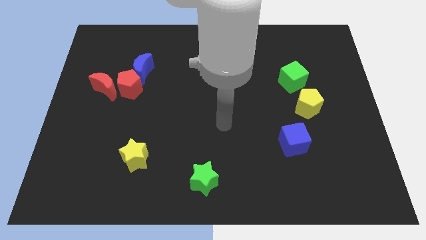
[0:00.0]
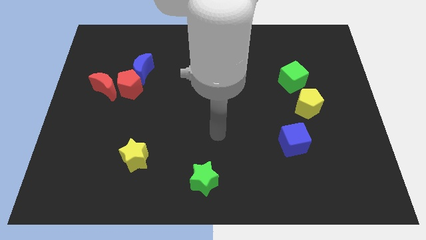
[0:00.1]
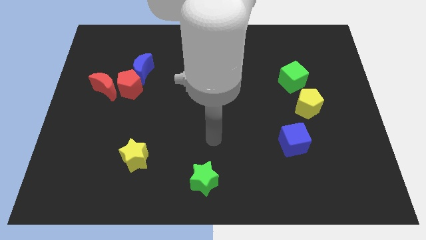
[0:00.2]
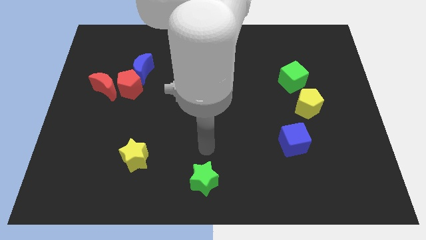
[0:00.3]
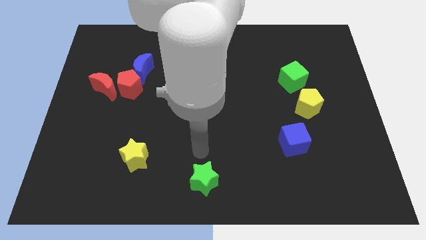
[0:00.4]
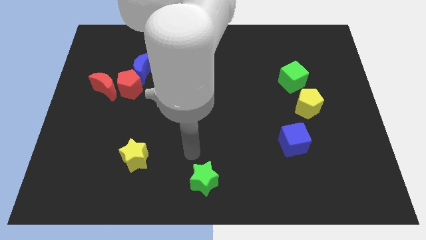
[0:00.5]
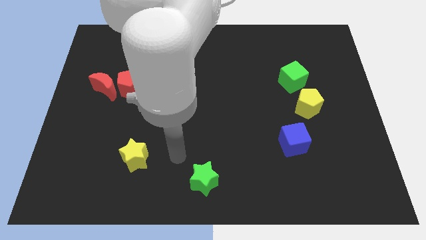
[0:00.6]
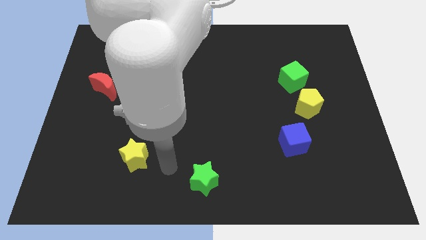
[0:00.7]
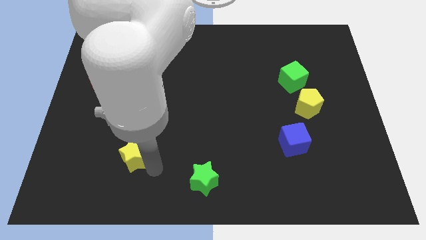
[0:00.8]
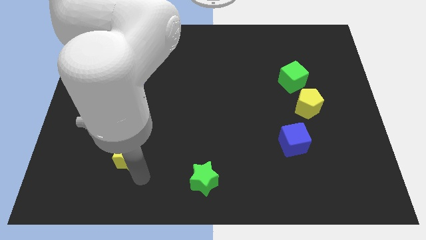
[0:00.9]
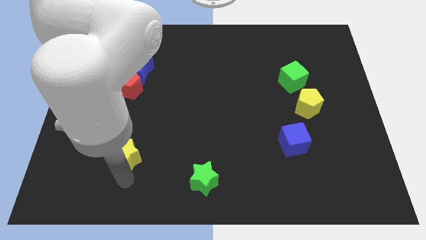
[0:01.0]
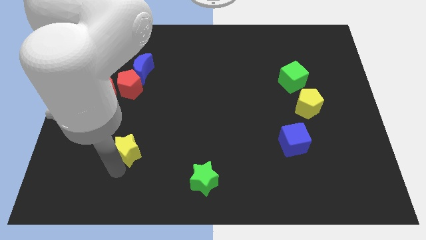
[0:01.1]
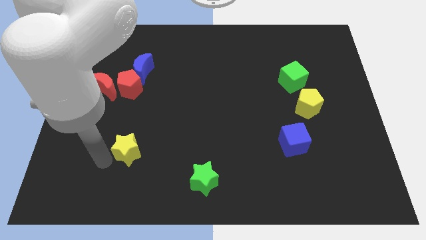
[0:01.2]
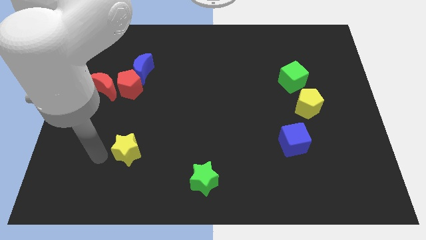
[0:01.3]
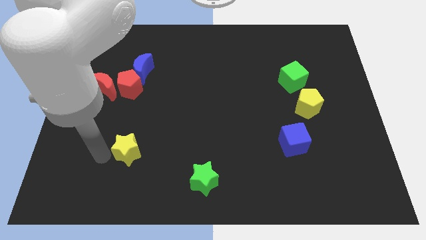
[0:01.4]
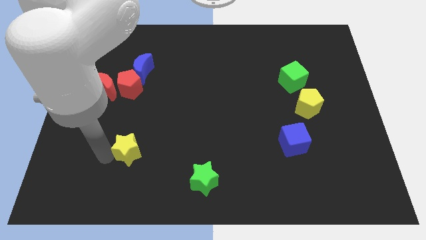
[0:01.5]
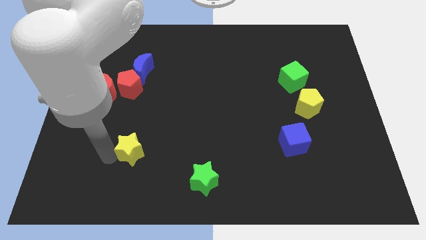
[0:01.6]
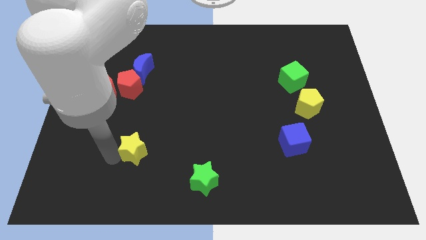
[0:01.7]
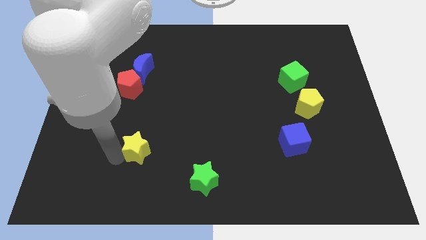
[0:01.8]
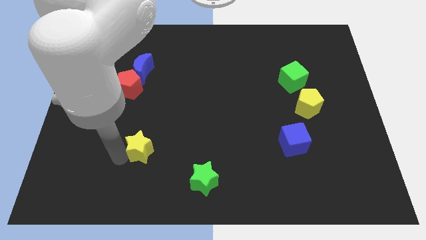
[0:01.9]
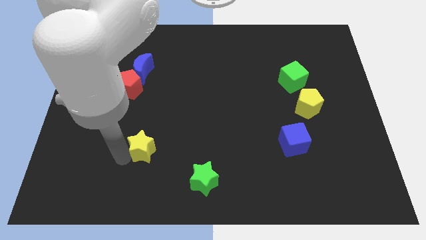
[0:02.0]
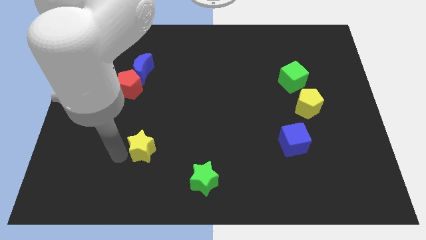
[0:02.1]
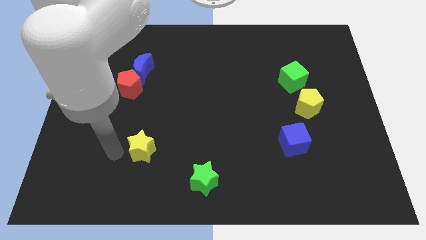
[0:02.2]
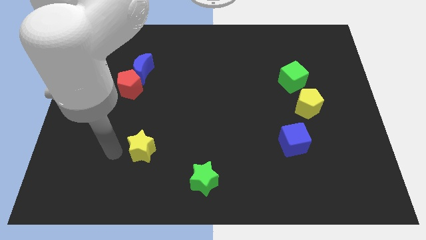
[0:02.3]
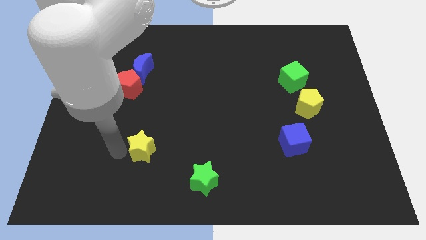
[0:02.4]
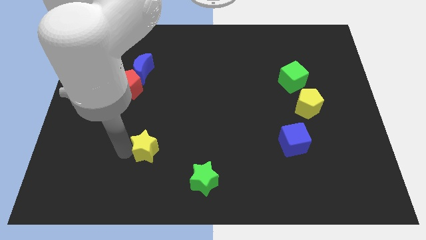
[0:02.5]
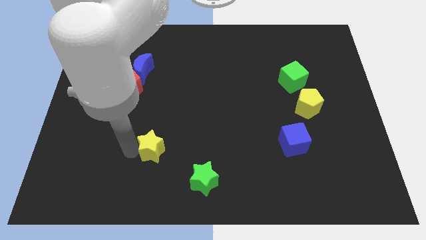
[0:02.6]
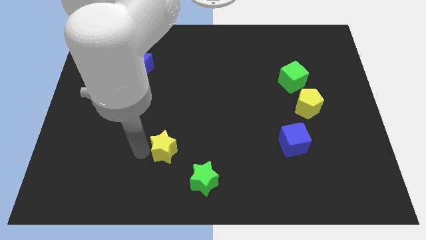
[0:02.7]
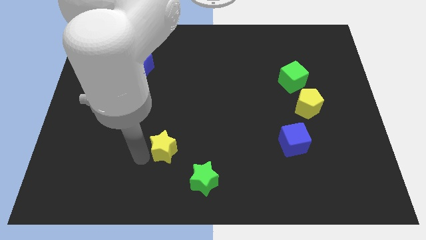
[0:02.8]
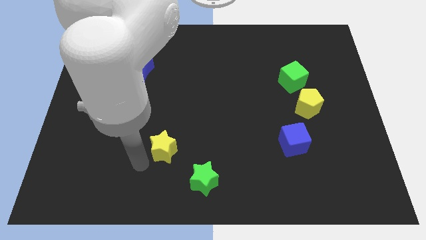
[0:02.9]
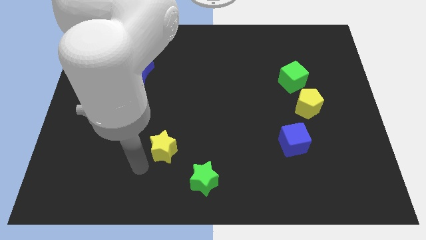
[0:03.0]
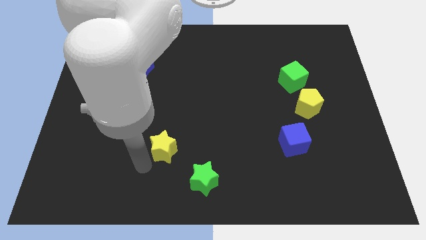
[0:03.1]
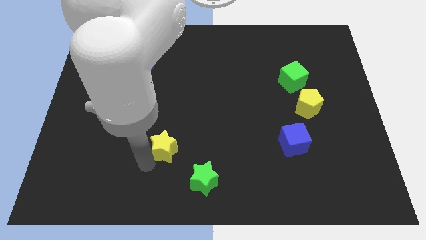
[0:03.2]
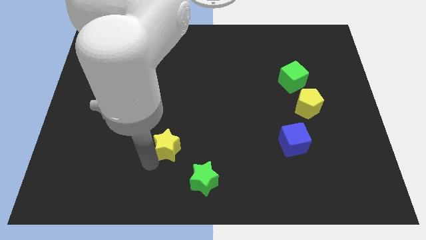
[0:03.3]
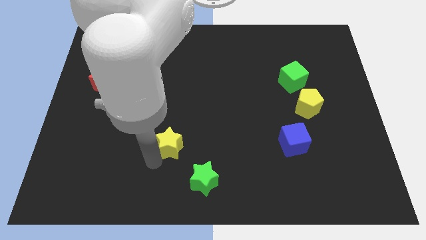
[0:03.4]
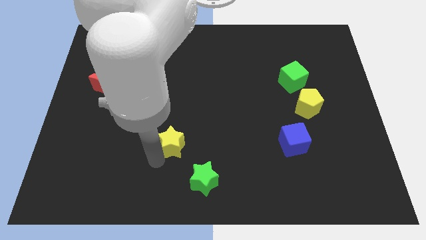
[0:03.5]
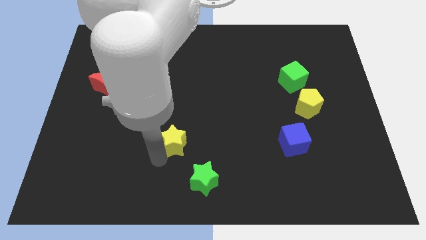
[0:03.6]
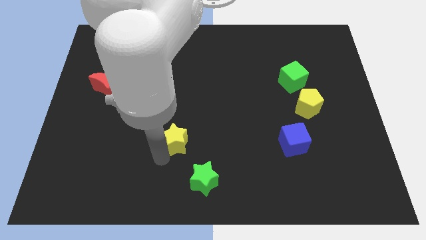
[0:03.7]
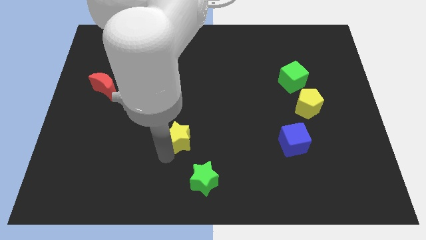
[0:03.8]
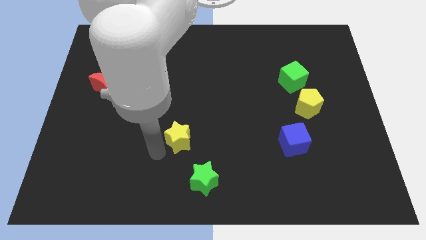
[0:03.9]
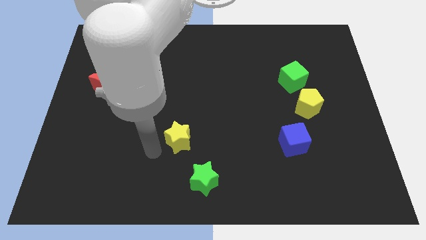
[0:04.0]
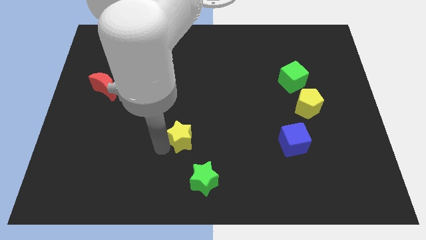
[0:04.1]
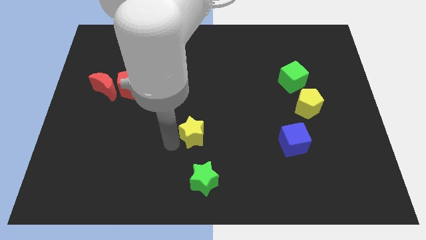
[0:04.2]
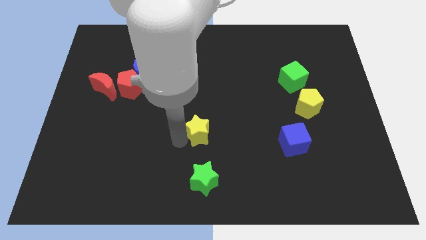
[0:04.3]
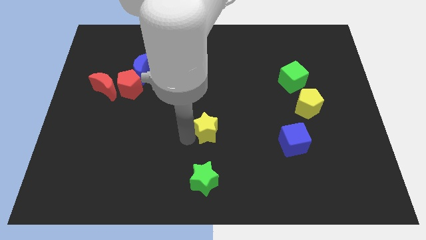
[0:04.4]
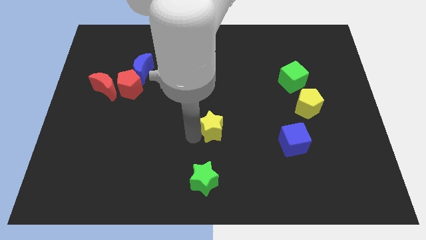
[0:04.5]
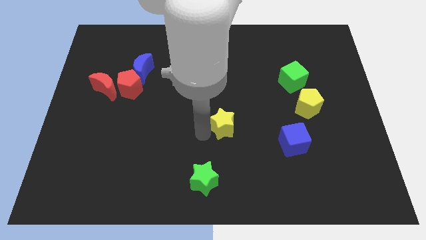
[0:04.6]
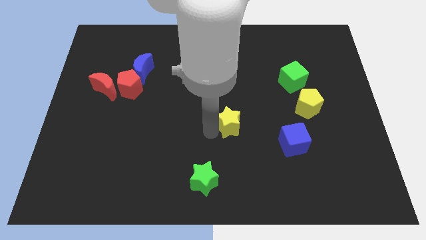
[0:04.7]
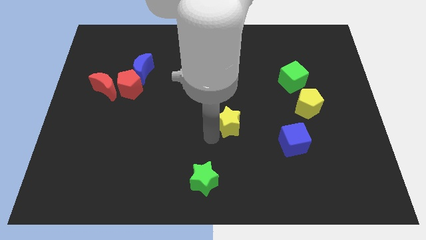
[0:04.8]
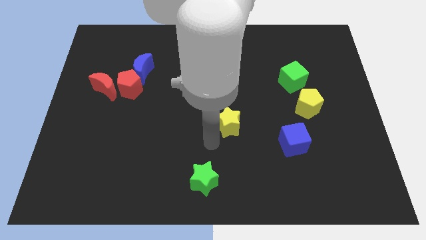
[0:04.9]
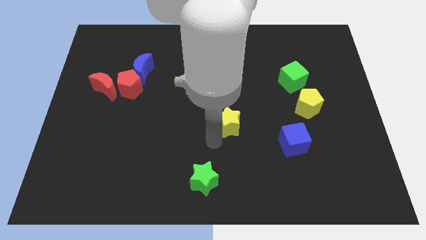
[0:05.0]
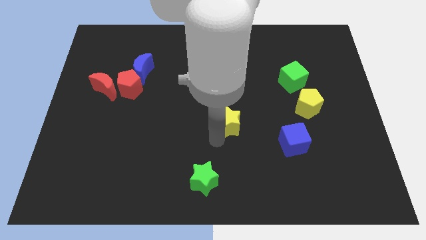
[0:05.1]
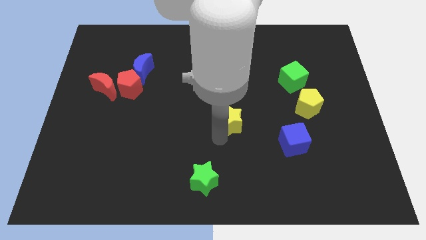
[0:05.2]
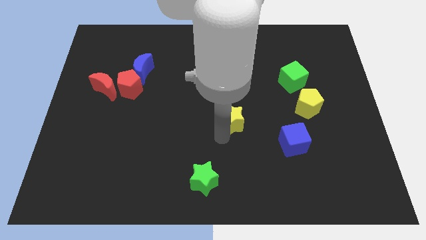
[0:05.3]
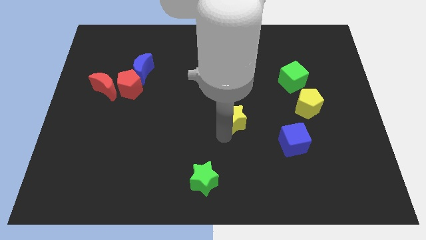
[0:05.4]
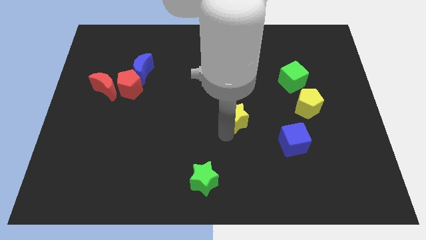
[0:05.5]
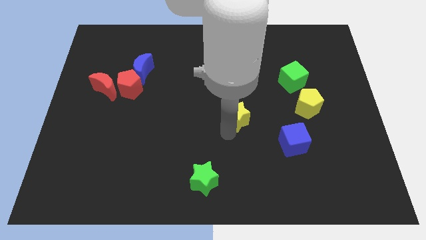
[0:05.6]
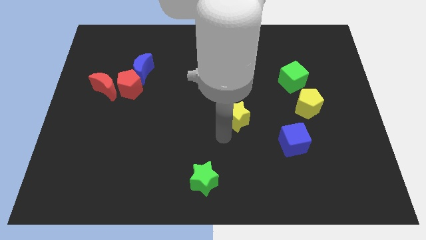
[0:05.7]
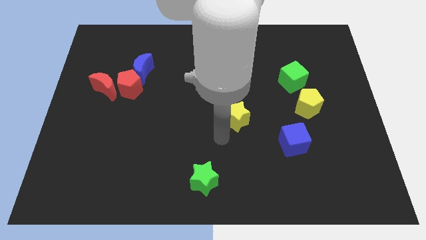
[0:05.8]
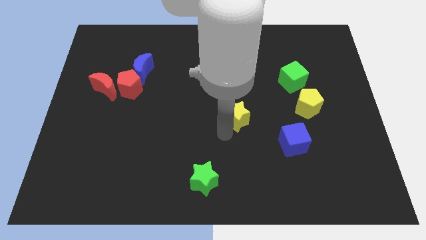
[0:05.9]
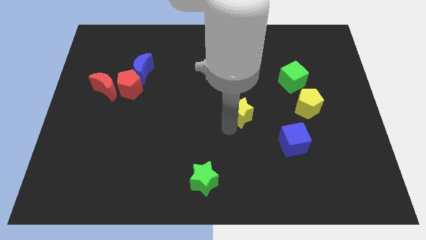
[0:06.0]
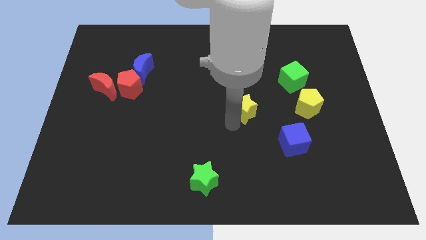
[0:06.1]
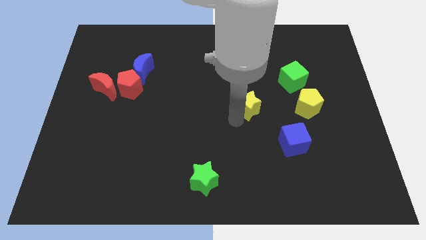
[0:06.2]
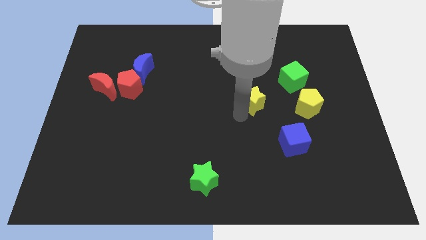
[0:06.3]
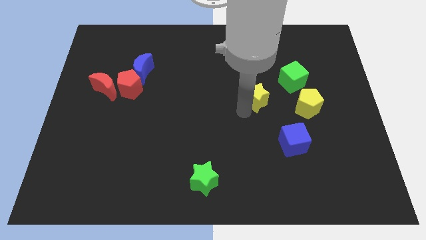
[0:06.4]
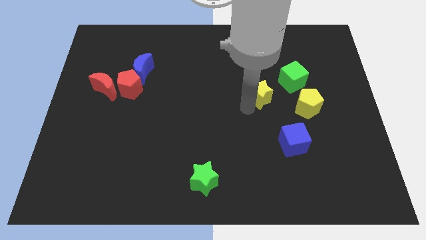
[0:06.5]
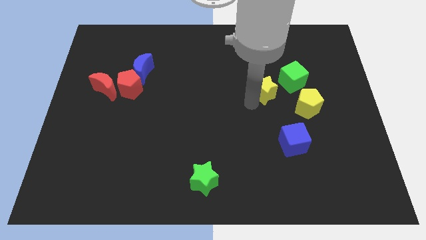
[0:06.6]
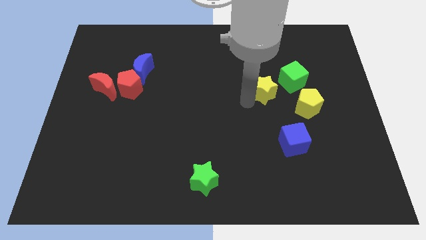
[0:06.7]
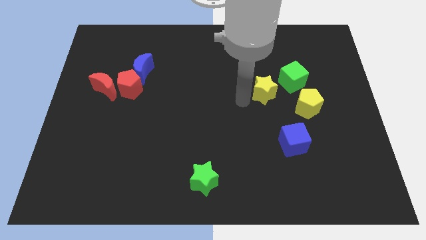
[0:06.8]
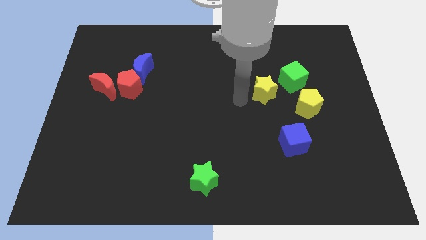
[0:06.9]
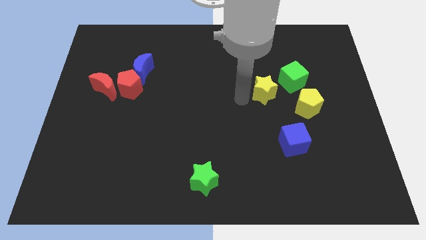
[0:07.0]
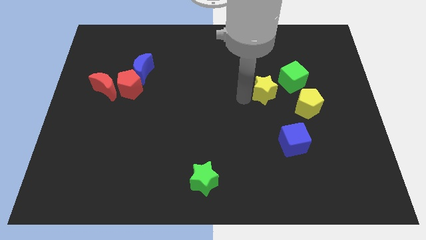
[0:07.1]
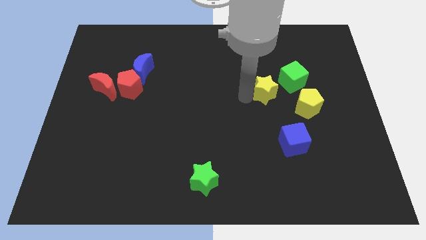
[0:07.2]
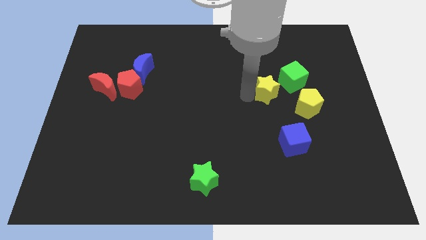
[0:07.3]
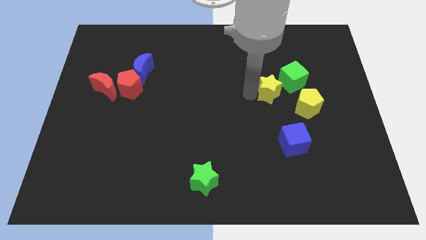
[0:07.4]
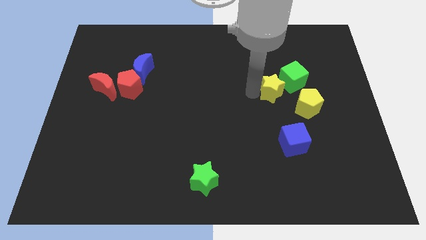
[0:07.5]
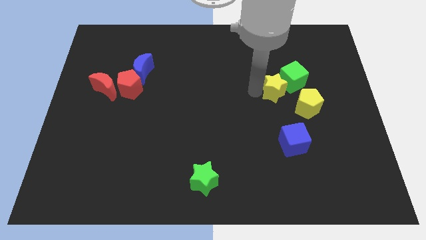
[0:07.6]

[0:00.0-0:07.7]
put the yellow star towards the green cube

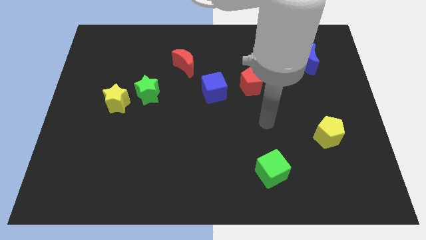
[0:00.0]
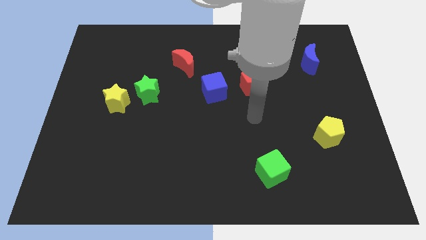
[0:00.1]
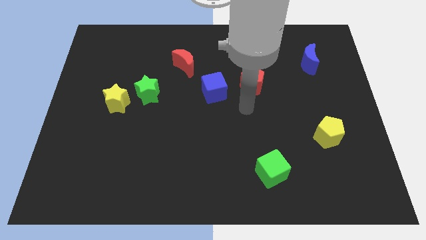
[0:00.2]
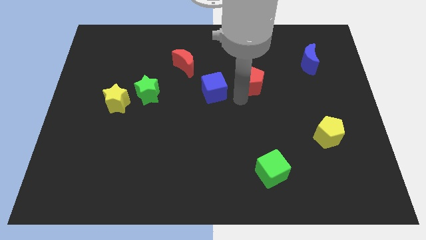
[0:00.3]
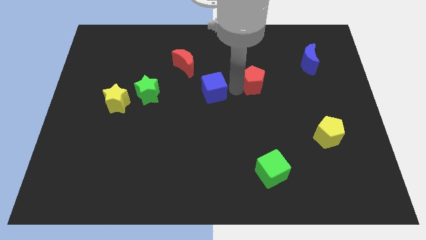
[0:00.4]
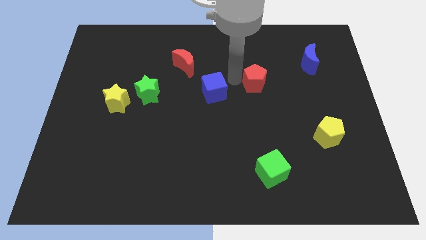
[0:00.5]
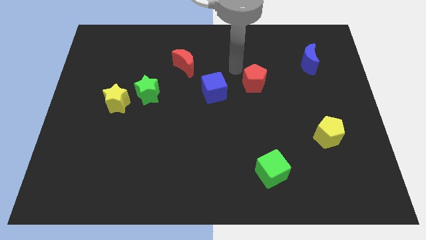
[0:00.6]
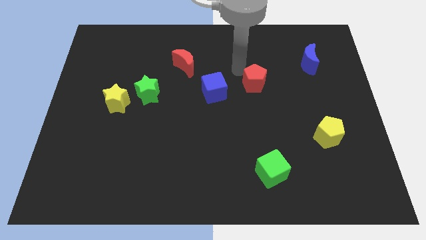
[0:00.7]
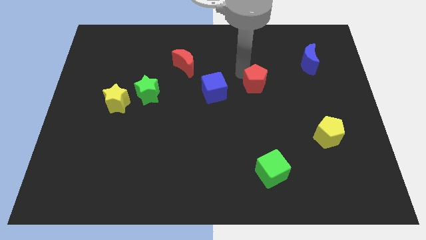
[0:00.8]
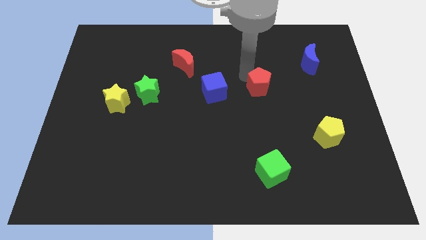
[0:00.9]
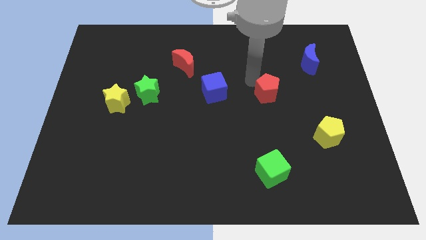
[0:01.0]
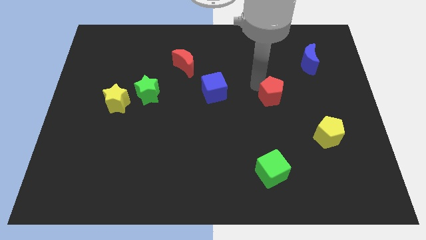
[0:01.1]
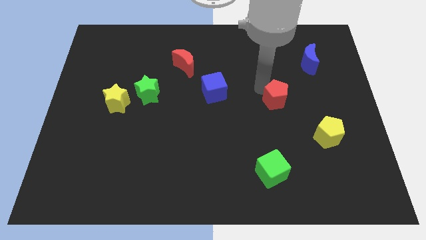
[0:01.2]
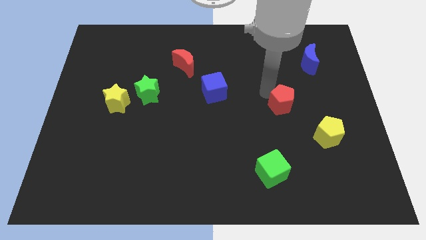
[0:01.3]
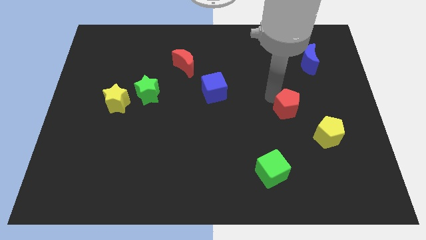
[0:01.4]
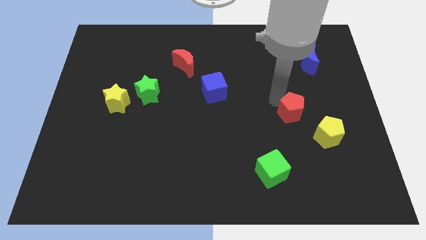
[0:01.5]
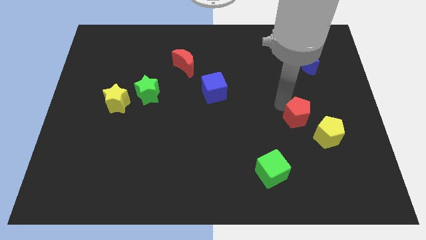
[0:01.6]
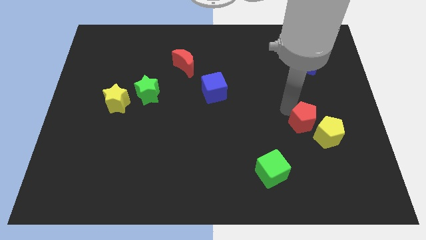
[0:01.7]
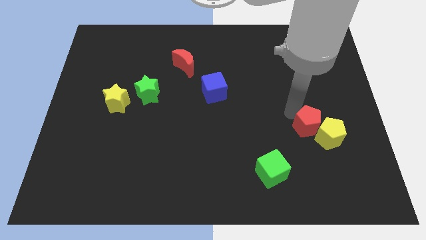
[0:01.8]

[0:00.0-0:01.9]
slide the red pentagon to the yellow pentagon
